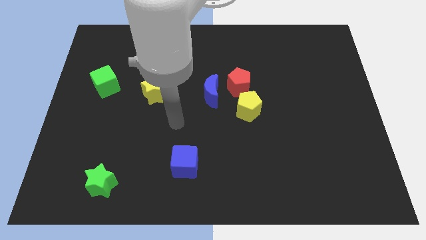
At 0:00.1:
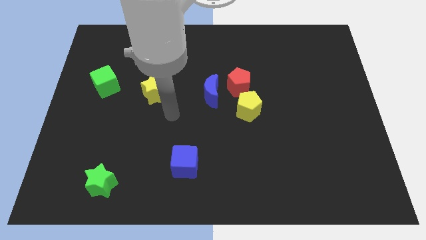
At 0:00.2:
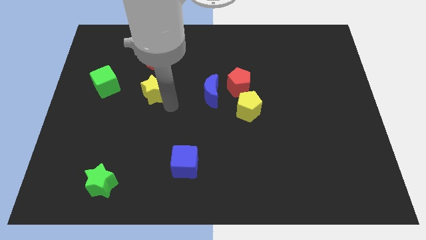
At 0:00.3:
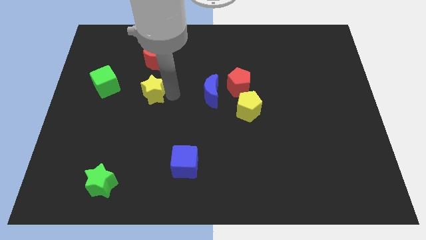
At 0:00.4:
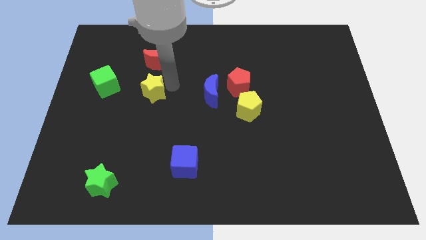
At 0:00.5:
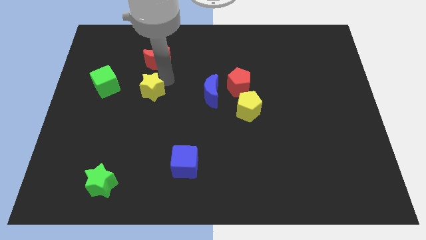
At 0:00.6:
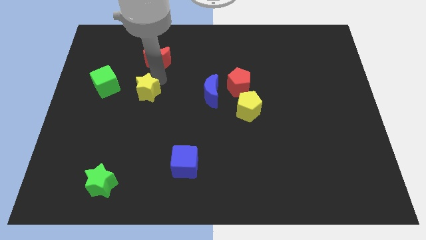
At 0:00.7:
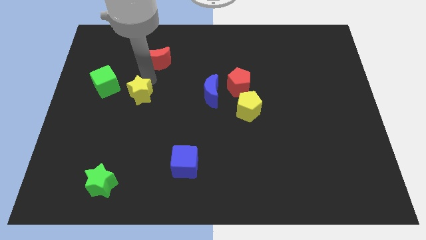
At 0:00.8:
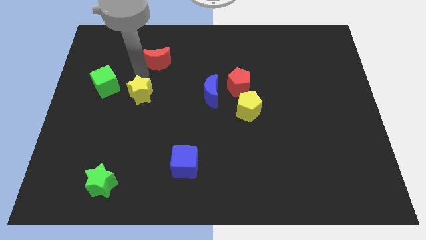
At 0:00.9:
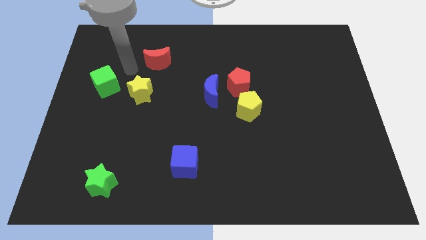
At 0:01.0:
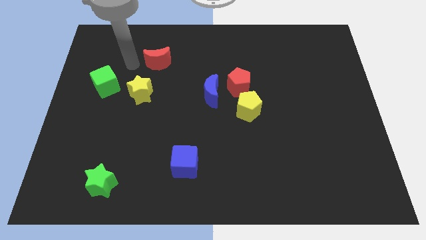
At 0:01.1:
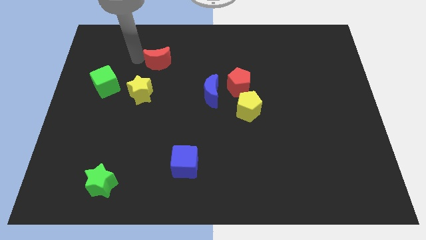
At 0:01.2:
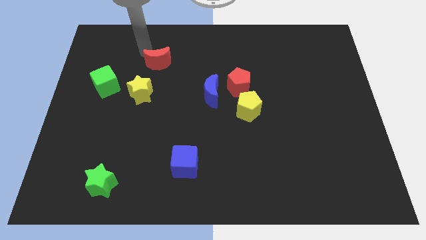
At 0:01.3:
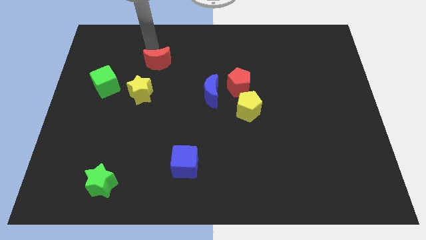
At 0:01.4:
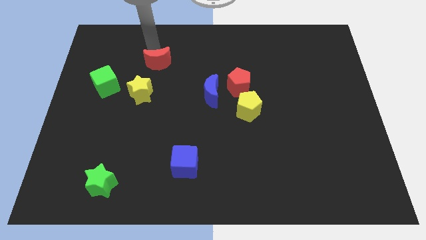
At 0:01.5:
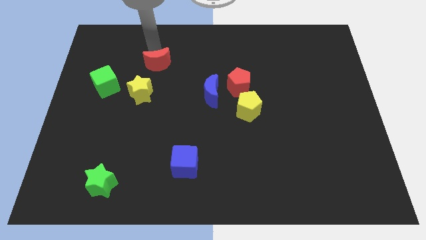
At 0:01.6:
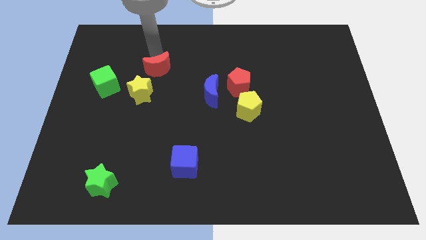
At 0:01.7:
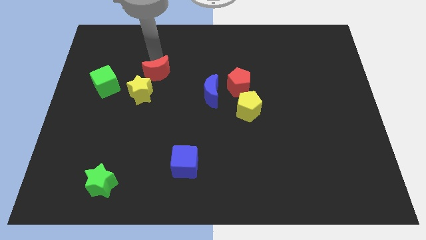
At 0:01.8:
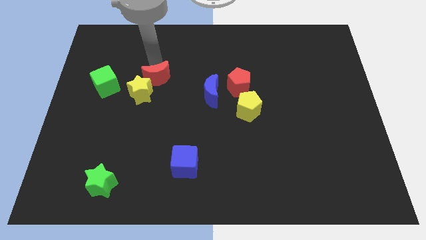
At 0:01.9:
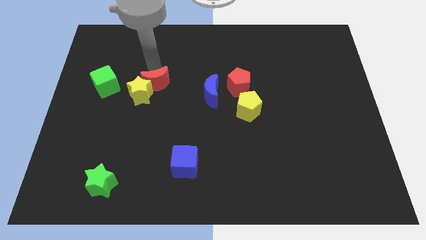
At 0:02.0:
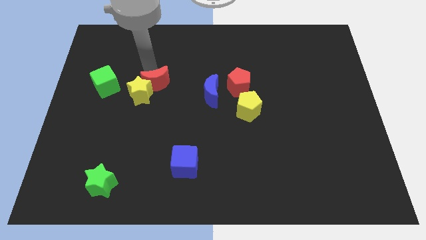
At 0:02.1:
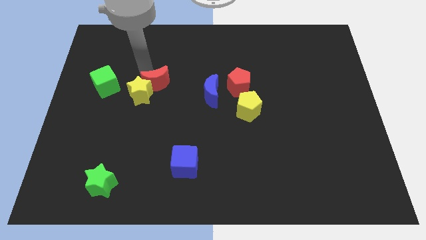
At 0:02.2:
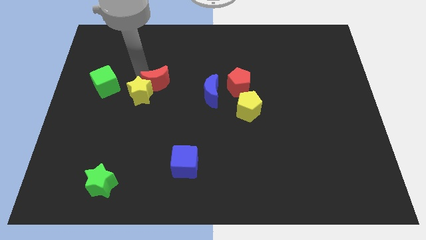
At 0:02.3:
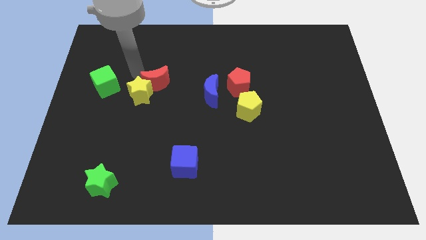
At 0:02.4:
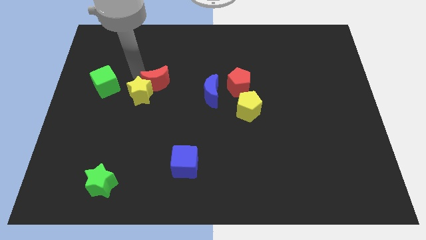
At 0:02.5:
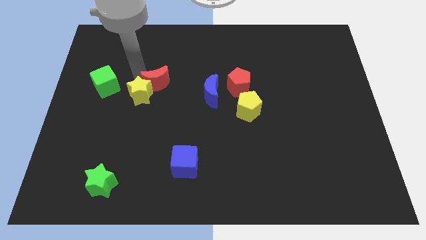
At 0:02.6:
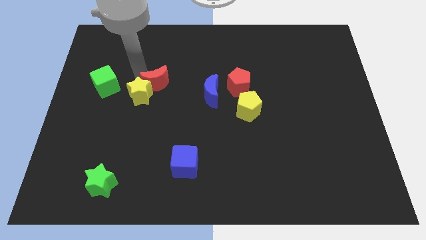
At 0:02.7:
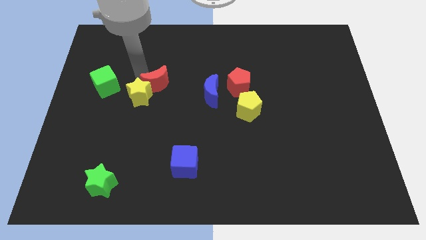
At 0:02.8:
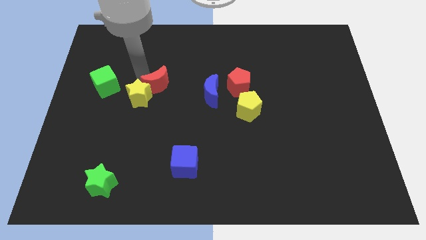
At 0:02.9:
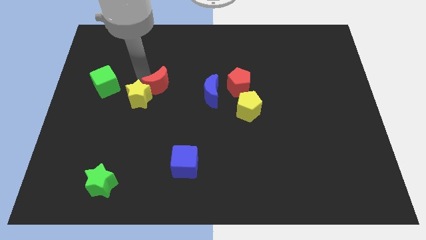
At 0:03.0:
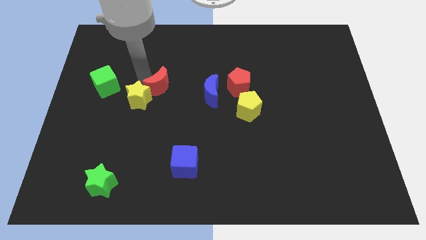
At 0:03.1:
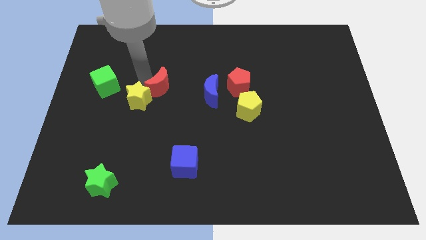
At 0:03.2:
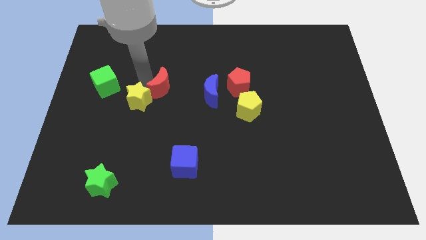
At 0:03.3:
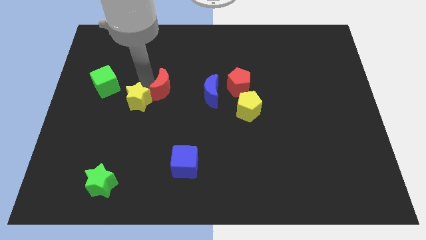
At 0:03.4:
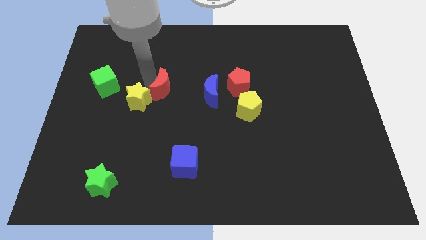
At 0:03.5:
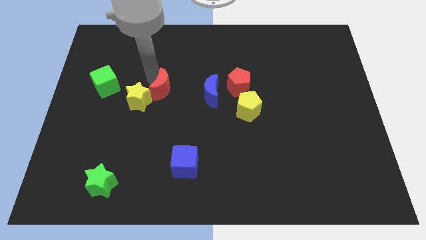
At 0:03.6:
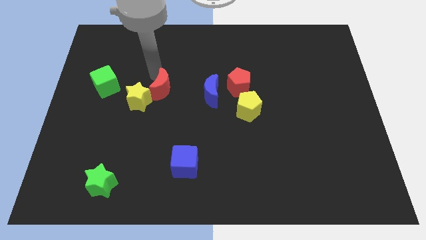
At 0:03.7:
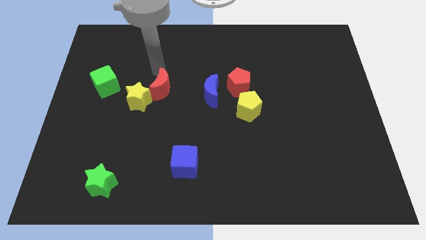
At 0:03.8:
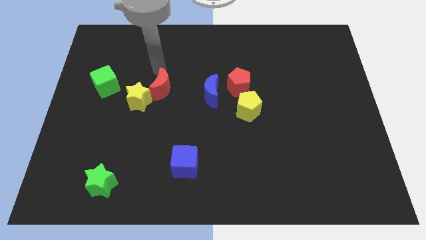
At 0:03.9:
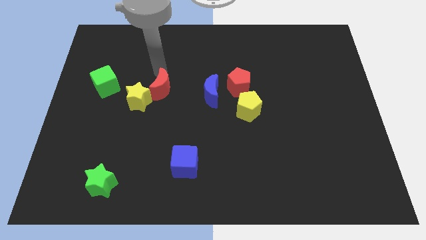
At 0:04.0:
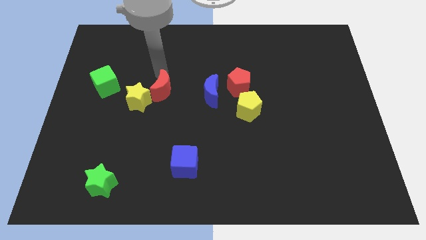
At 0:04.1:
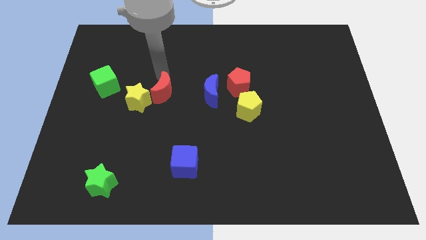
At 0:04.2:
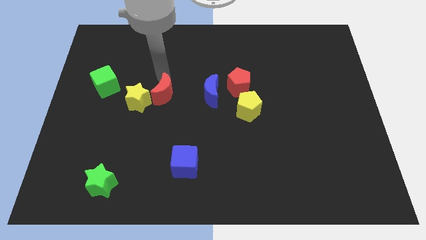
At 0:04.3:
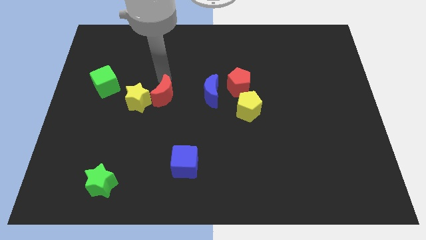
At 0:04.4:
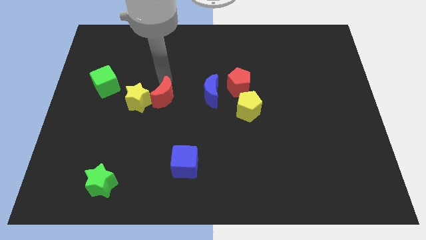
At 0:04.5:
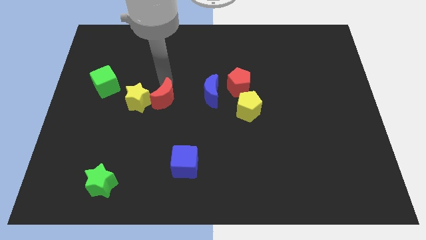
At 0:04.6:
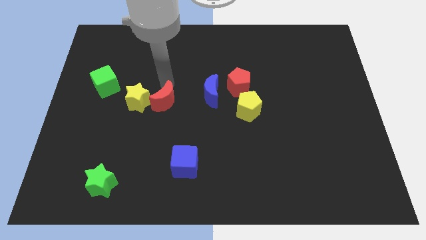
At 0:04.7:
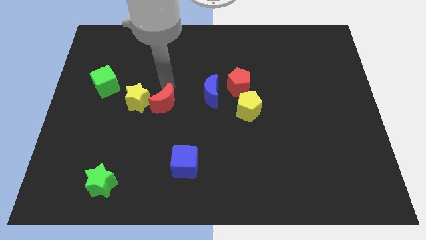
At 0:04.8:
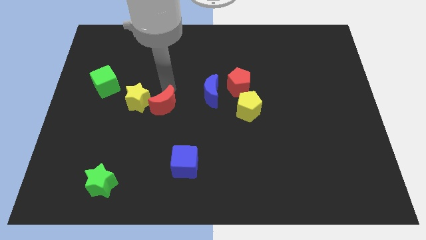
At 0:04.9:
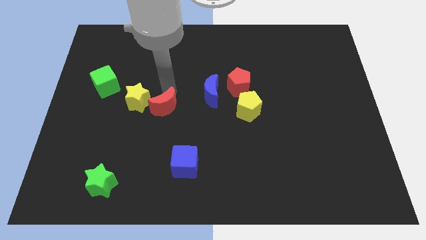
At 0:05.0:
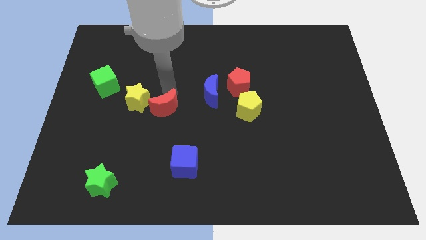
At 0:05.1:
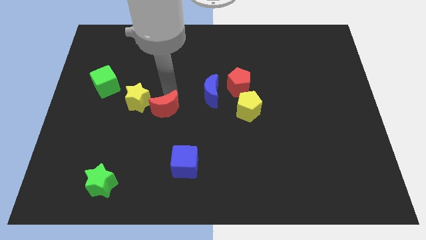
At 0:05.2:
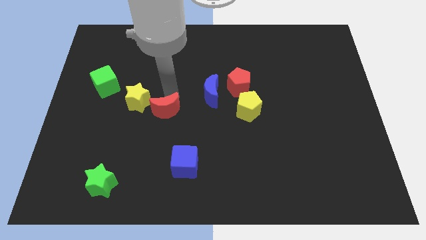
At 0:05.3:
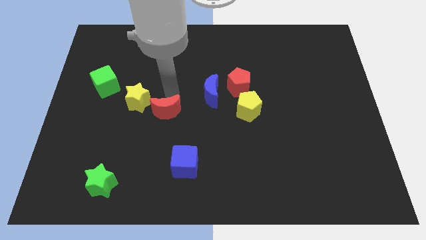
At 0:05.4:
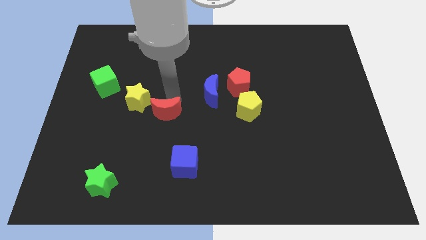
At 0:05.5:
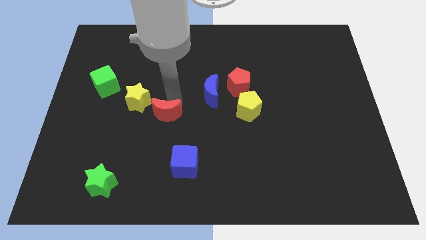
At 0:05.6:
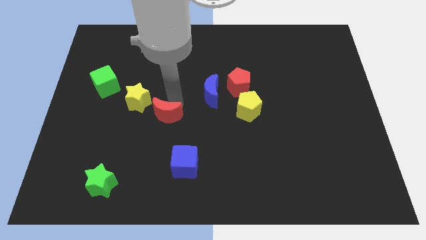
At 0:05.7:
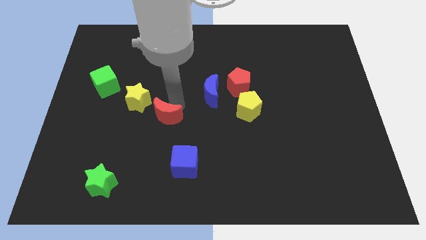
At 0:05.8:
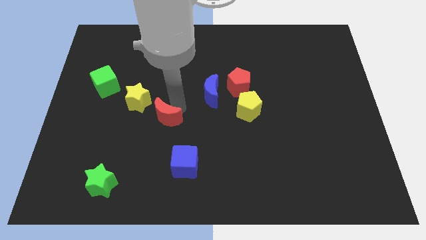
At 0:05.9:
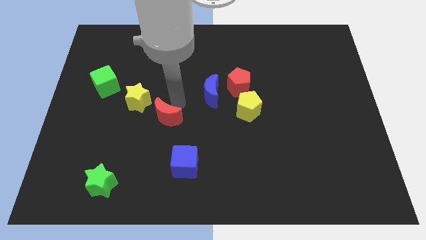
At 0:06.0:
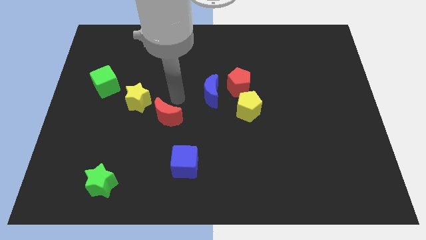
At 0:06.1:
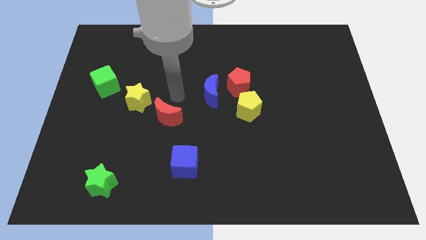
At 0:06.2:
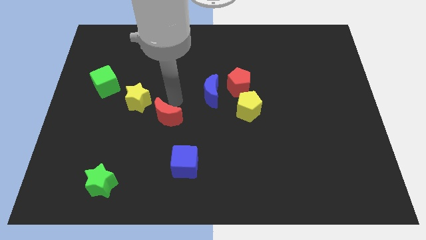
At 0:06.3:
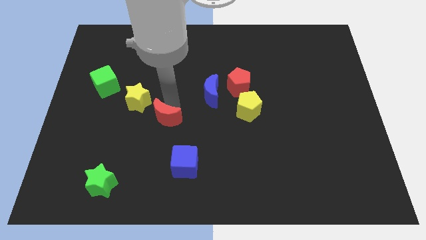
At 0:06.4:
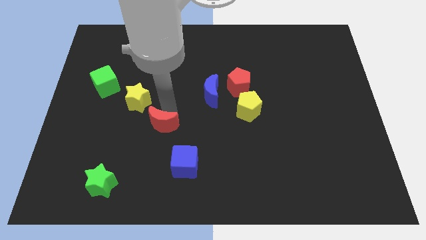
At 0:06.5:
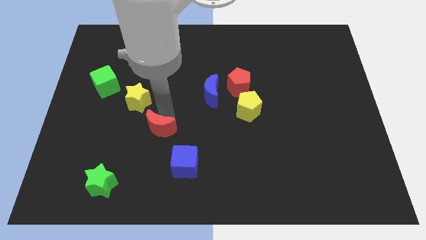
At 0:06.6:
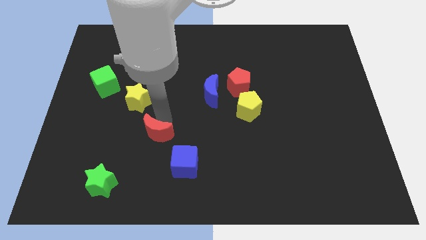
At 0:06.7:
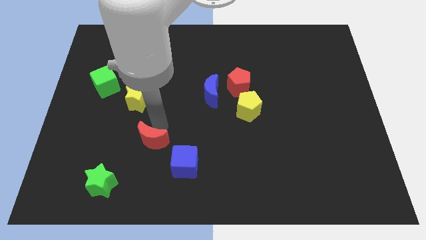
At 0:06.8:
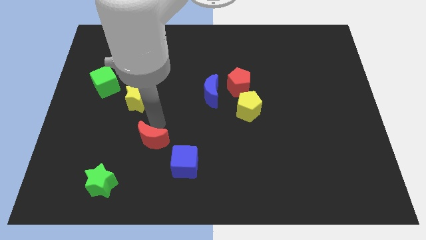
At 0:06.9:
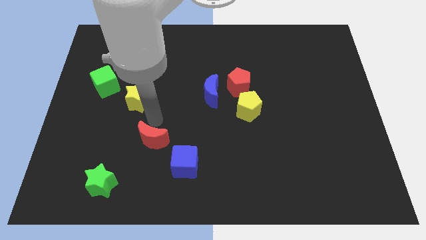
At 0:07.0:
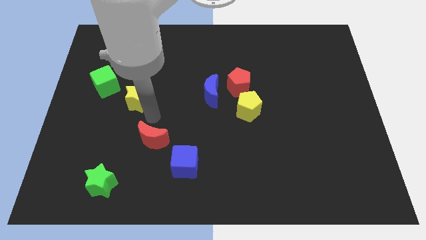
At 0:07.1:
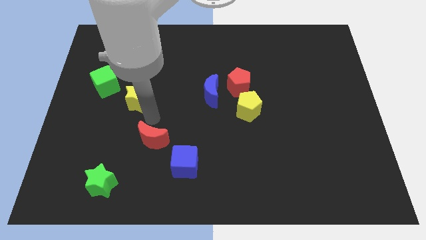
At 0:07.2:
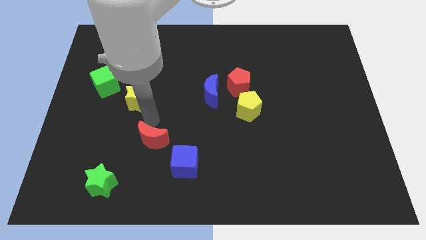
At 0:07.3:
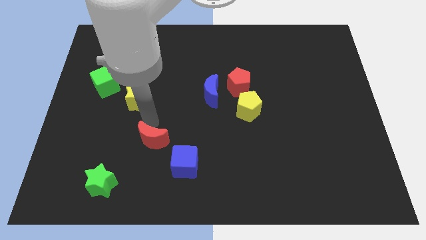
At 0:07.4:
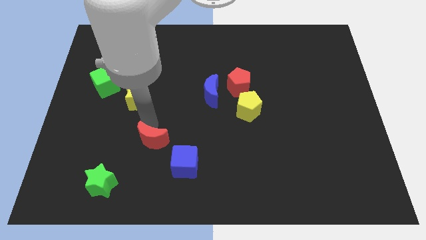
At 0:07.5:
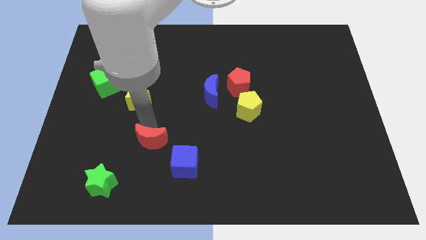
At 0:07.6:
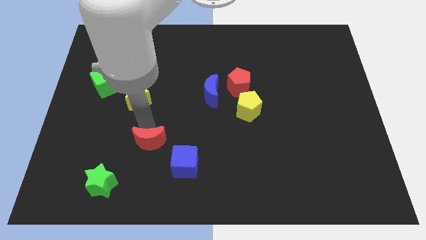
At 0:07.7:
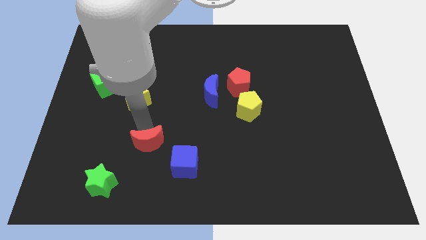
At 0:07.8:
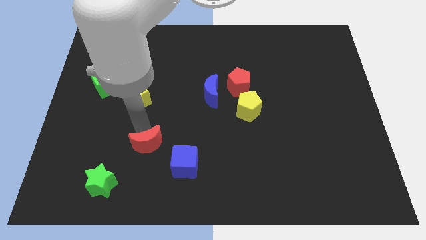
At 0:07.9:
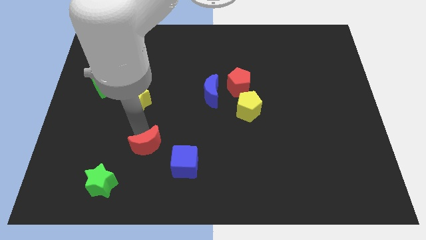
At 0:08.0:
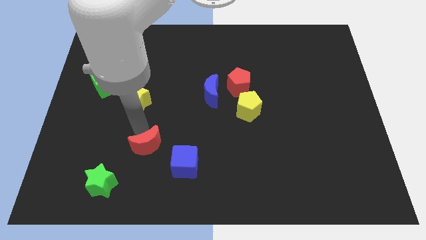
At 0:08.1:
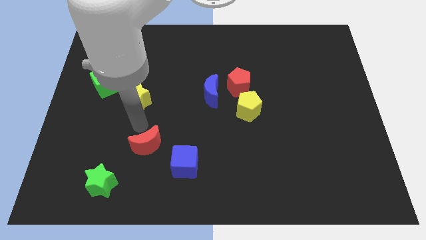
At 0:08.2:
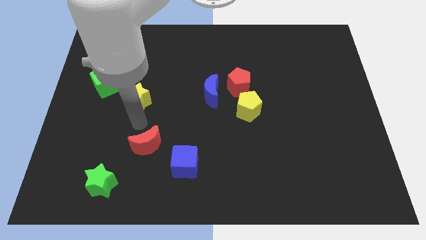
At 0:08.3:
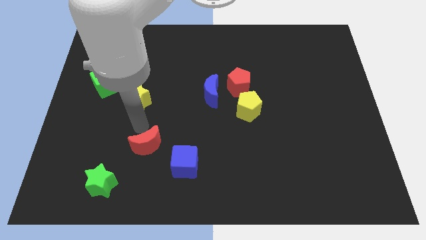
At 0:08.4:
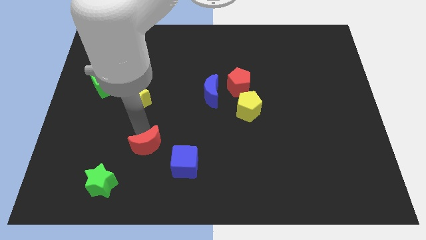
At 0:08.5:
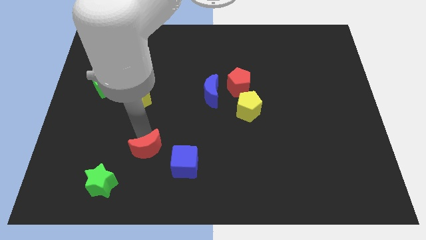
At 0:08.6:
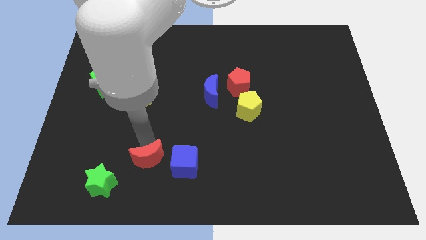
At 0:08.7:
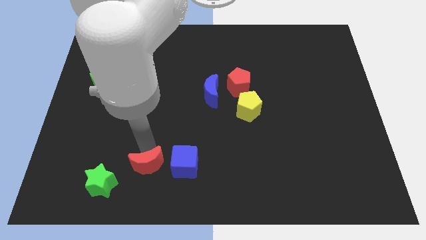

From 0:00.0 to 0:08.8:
put the red moon to the right side of the green star
